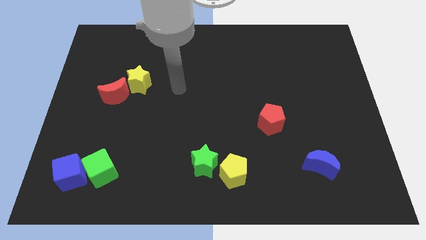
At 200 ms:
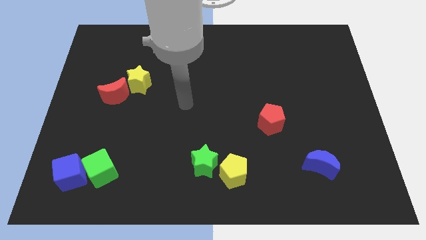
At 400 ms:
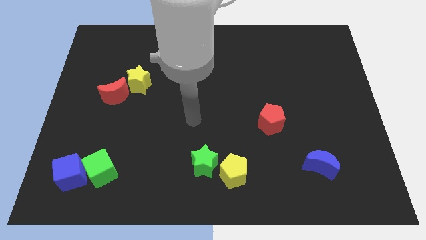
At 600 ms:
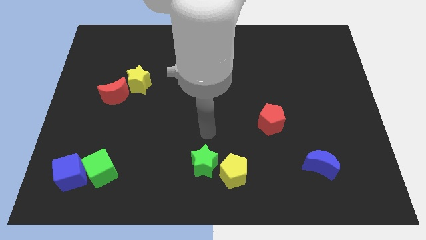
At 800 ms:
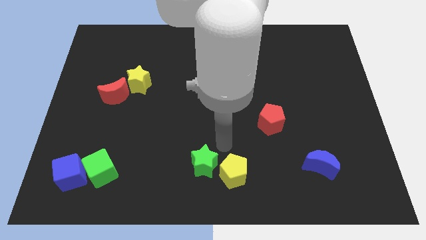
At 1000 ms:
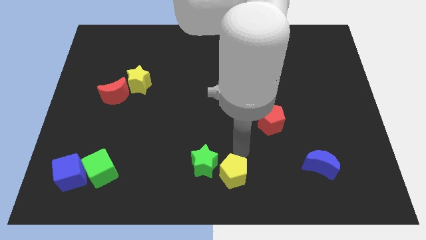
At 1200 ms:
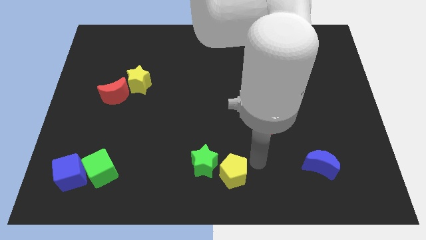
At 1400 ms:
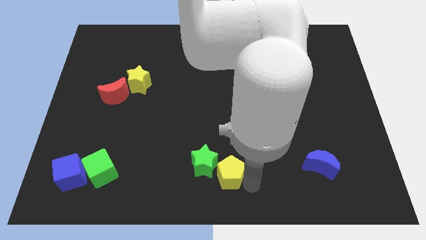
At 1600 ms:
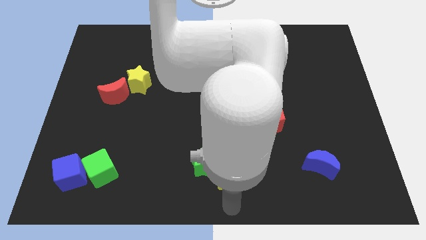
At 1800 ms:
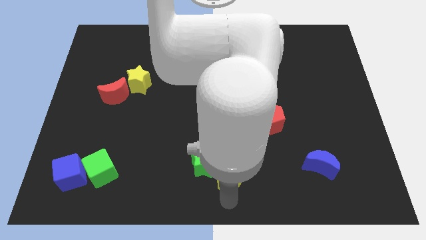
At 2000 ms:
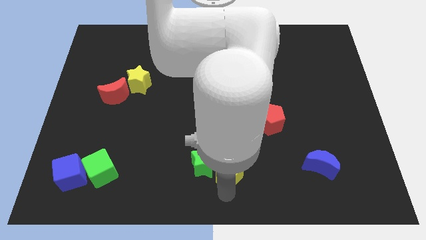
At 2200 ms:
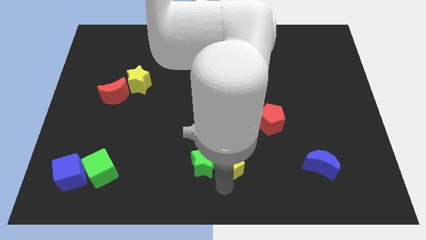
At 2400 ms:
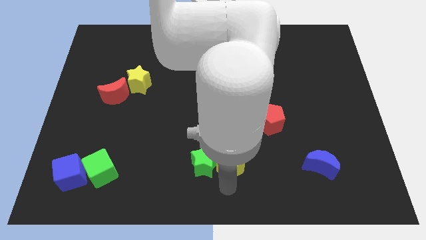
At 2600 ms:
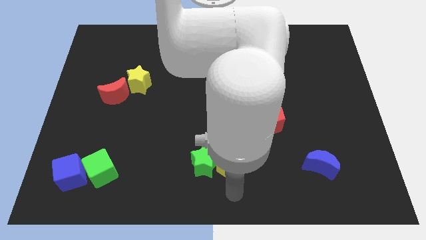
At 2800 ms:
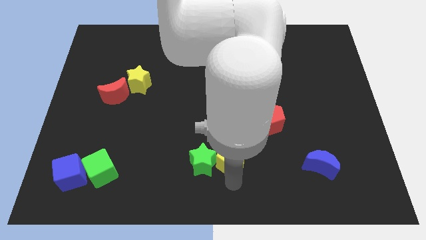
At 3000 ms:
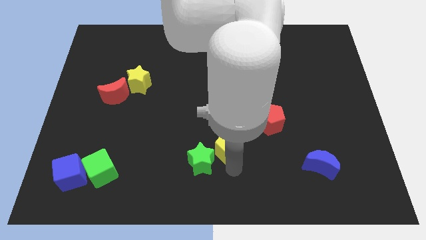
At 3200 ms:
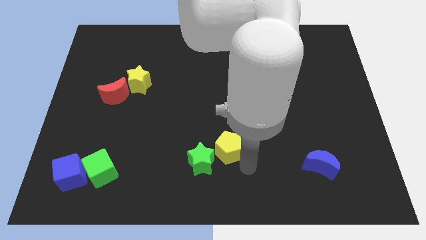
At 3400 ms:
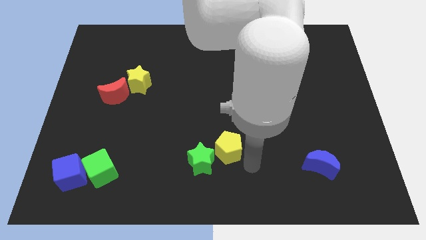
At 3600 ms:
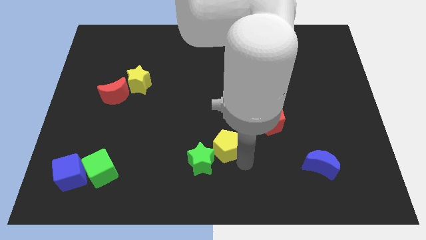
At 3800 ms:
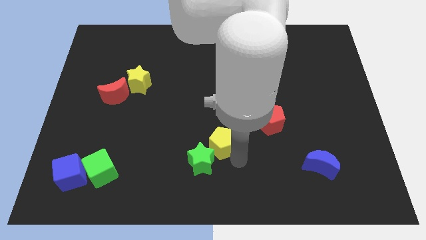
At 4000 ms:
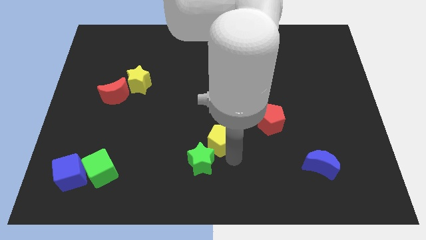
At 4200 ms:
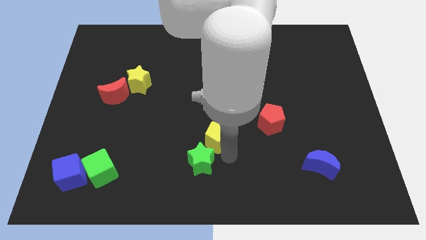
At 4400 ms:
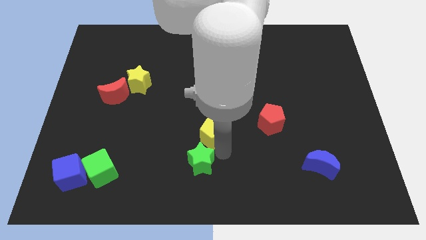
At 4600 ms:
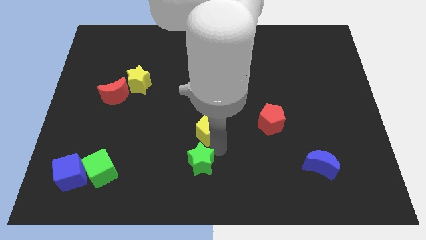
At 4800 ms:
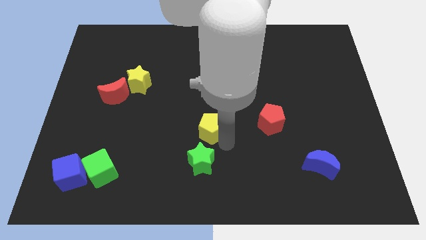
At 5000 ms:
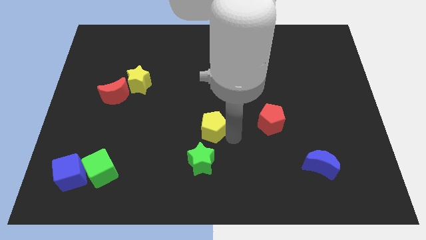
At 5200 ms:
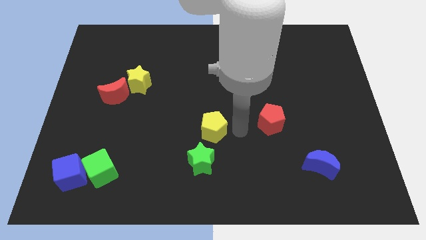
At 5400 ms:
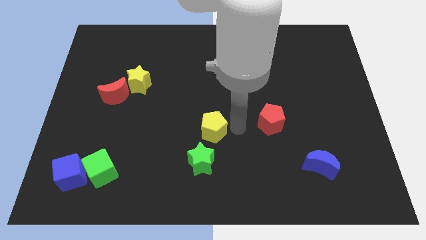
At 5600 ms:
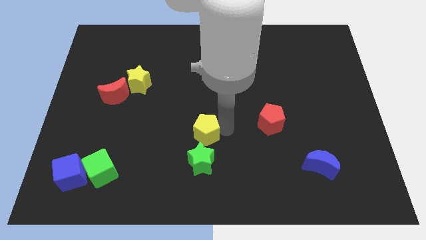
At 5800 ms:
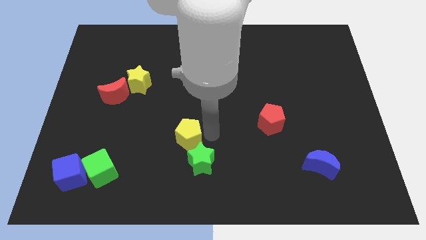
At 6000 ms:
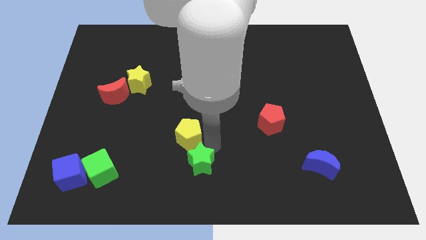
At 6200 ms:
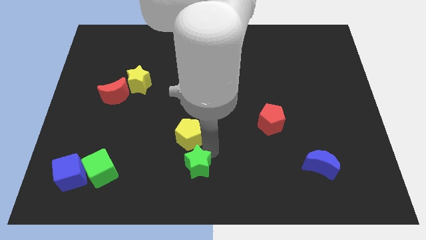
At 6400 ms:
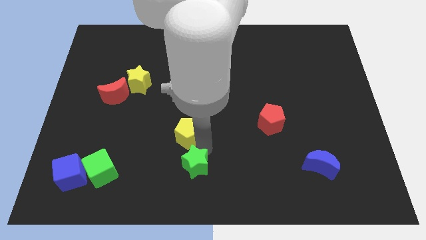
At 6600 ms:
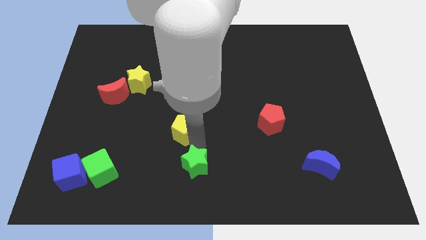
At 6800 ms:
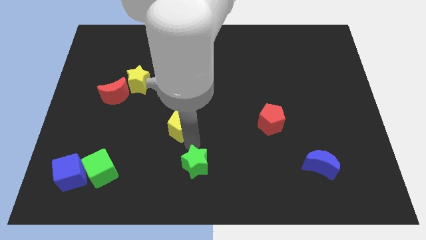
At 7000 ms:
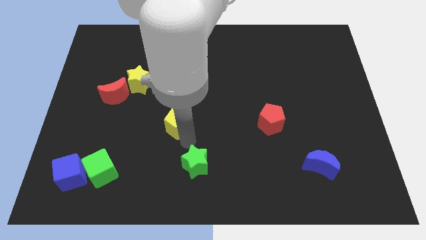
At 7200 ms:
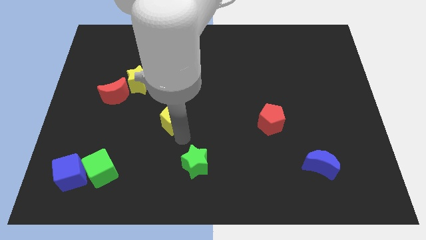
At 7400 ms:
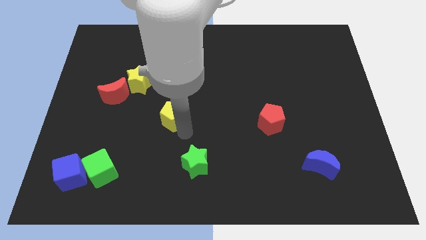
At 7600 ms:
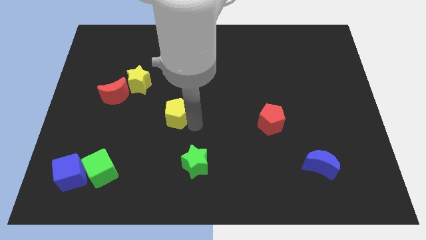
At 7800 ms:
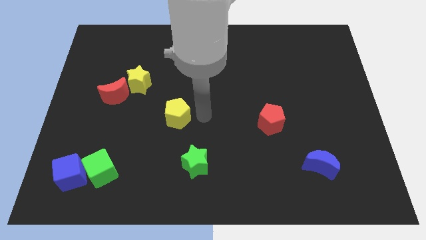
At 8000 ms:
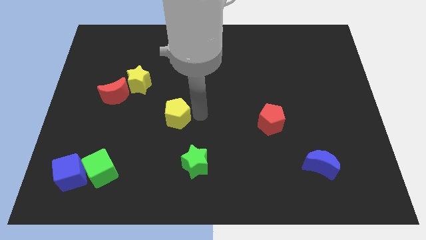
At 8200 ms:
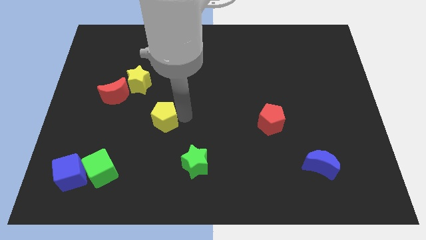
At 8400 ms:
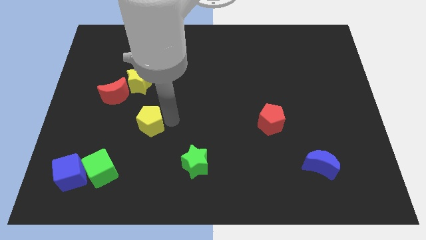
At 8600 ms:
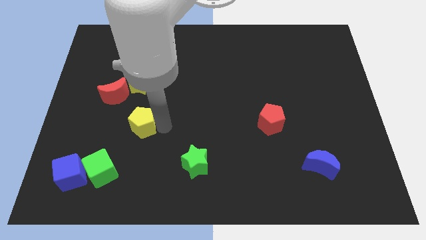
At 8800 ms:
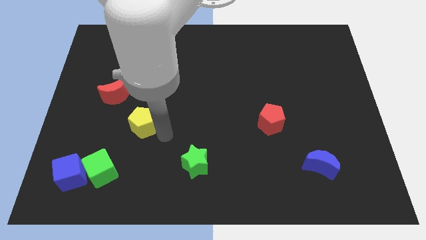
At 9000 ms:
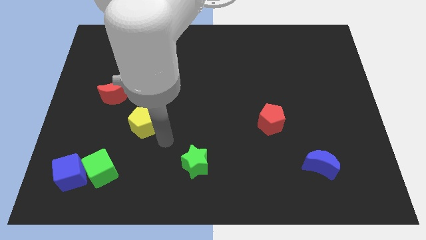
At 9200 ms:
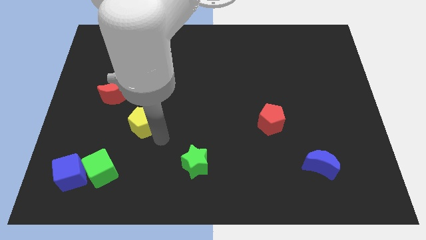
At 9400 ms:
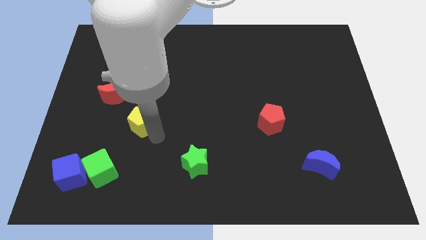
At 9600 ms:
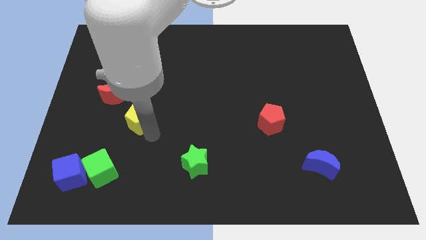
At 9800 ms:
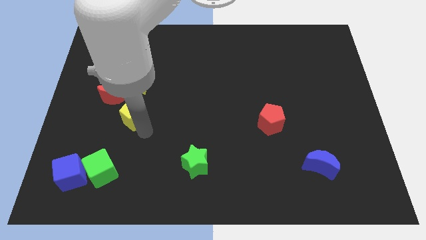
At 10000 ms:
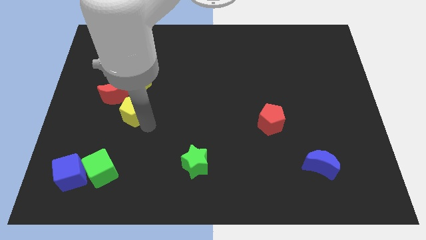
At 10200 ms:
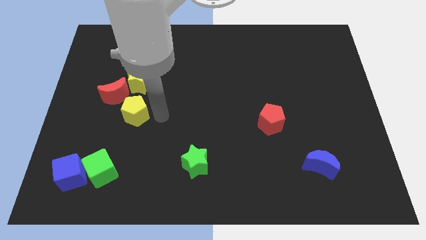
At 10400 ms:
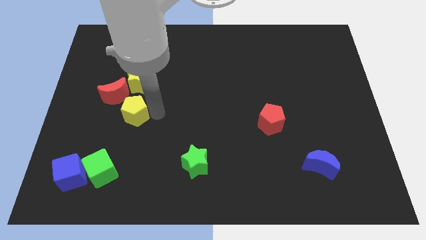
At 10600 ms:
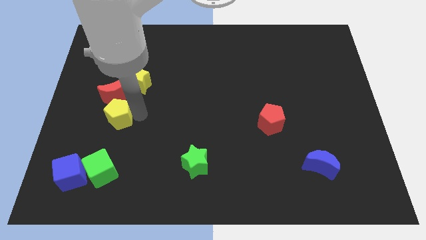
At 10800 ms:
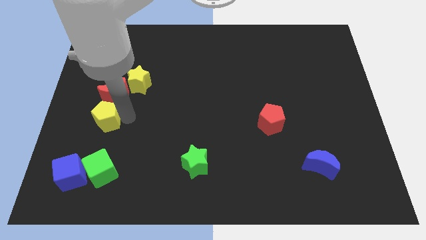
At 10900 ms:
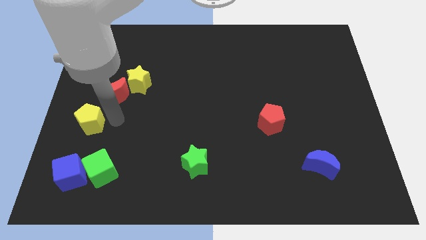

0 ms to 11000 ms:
put the yellow pentagon to the left side of the board

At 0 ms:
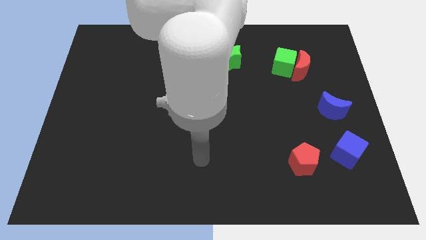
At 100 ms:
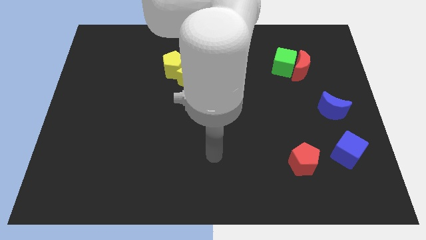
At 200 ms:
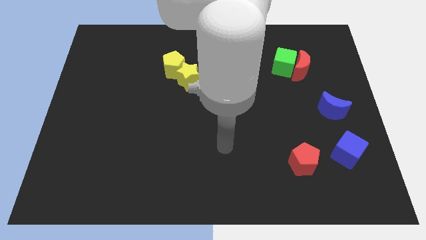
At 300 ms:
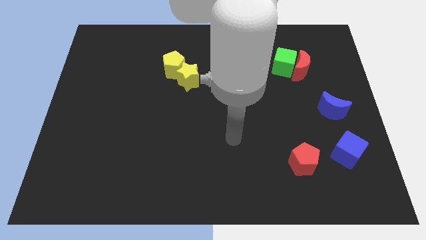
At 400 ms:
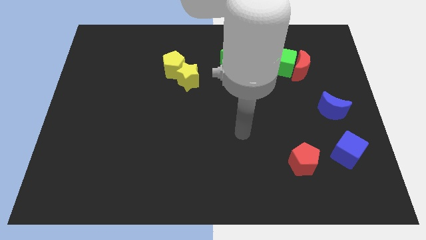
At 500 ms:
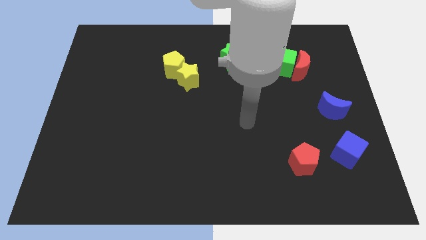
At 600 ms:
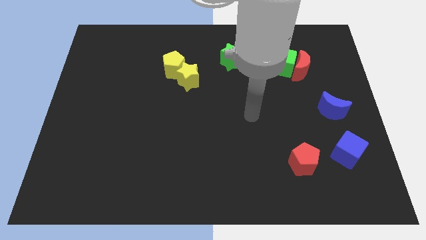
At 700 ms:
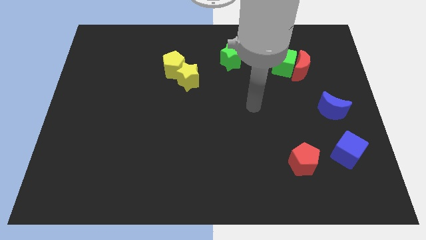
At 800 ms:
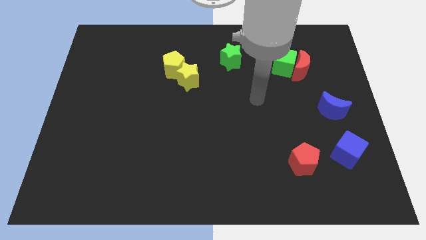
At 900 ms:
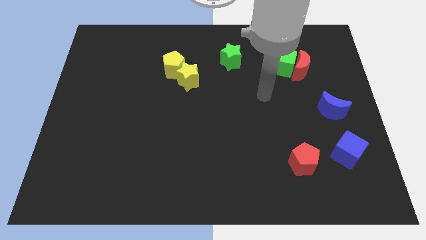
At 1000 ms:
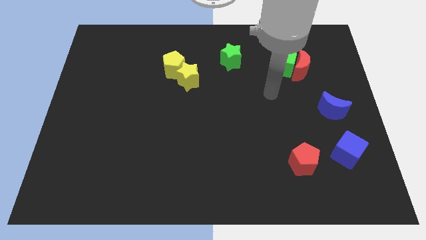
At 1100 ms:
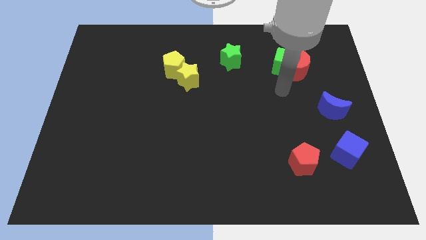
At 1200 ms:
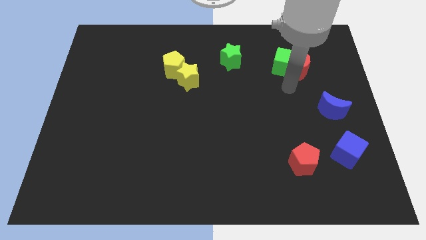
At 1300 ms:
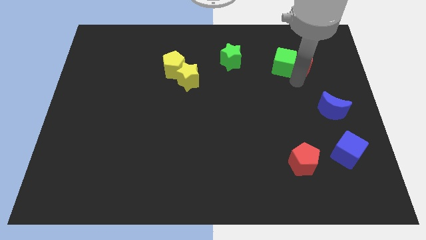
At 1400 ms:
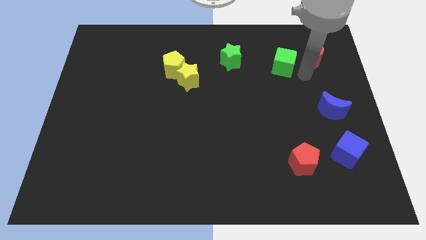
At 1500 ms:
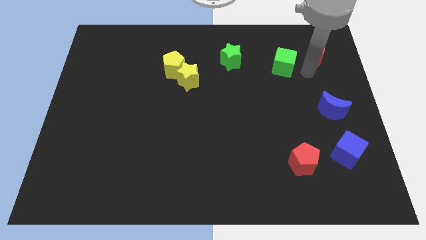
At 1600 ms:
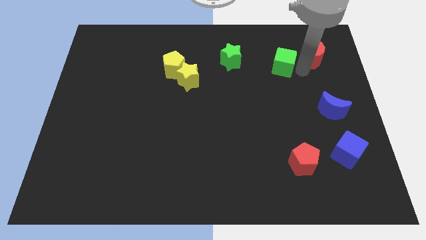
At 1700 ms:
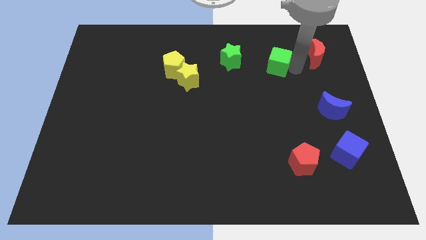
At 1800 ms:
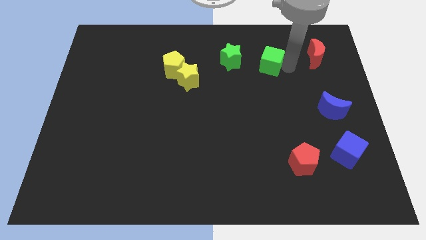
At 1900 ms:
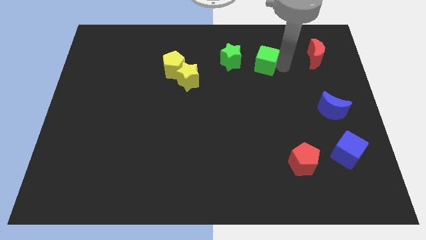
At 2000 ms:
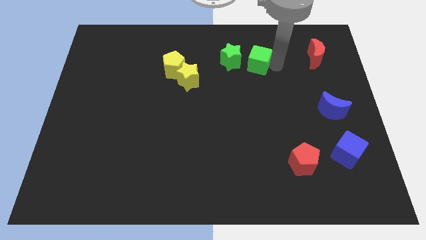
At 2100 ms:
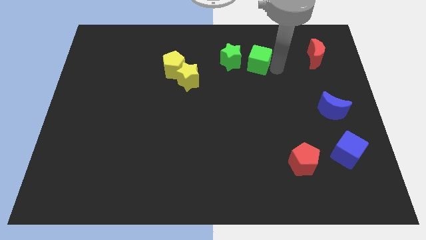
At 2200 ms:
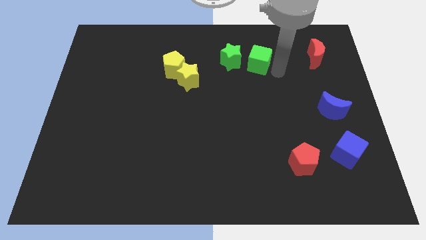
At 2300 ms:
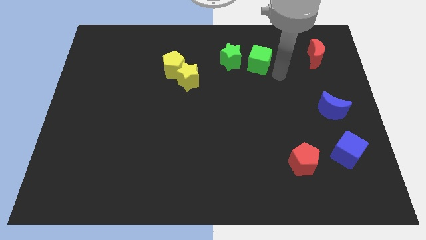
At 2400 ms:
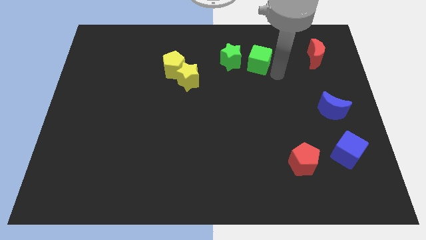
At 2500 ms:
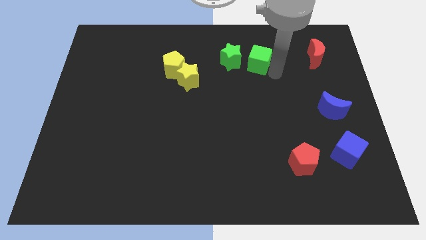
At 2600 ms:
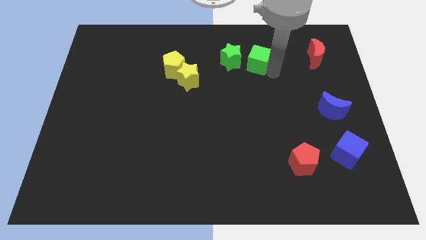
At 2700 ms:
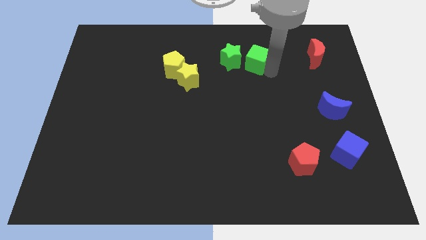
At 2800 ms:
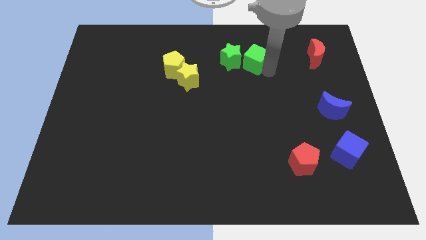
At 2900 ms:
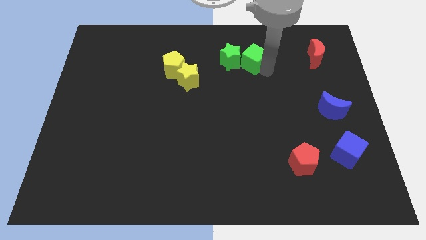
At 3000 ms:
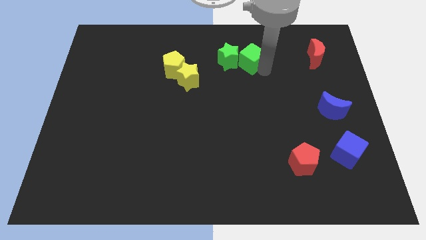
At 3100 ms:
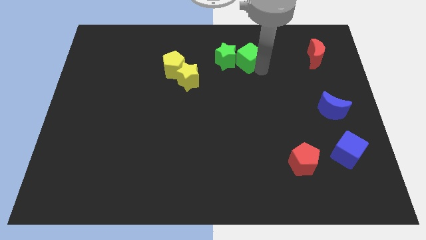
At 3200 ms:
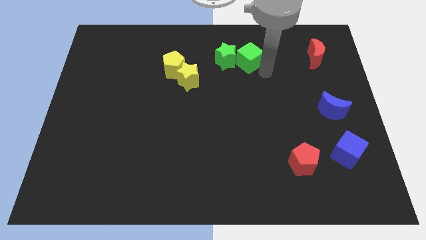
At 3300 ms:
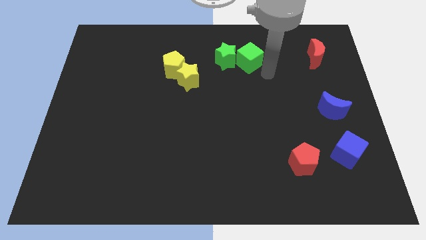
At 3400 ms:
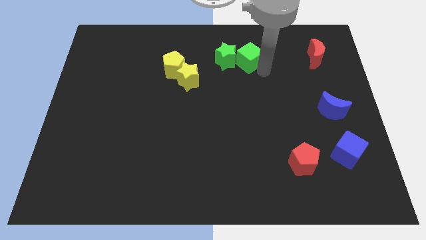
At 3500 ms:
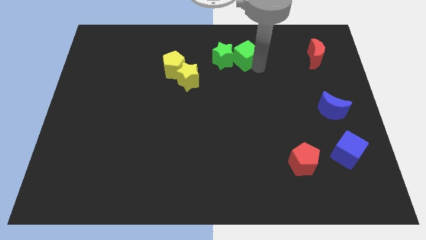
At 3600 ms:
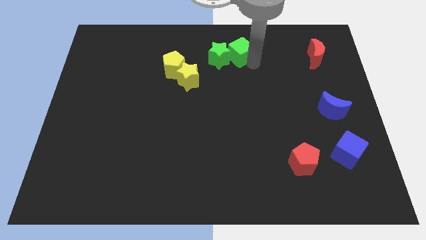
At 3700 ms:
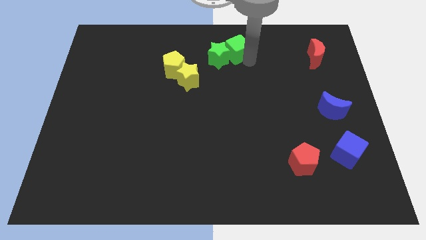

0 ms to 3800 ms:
move the green cube to the top side
